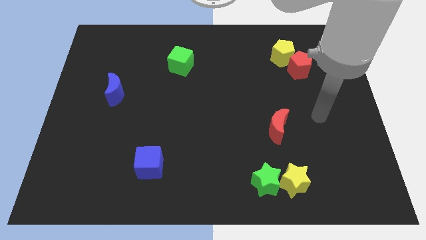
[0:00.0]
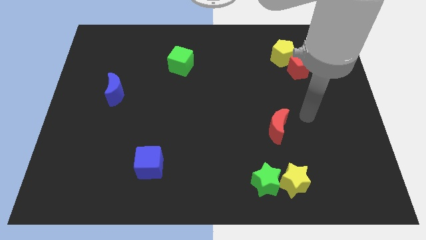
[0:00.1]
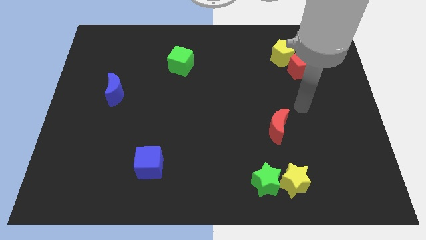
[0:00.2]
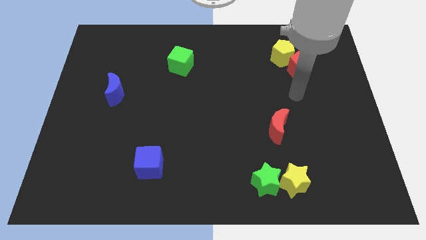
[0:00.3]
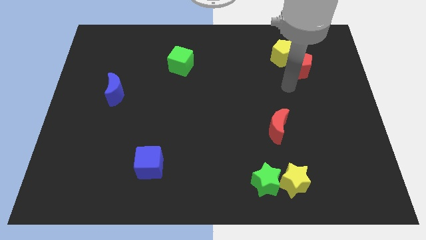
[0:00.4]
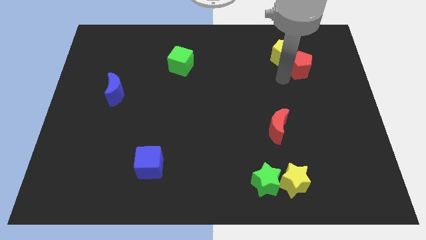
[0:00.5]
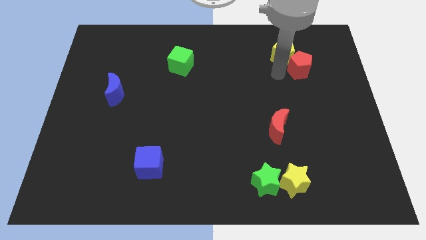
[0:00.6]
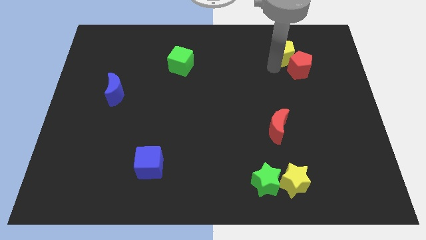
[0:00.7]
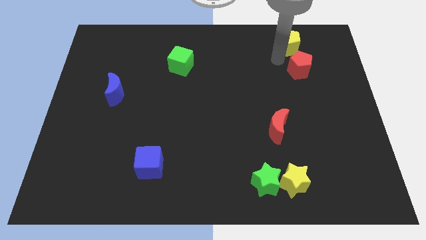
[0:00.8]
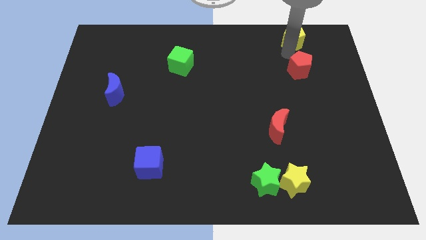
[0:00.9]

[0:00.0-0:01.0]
move the red pentagon away from the yellow pentagon

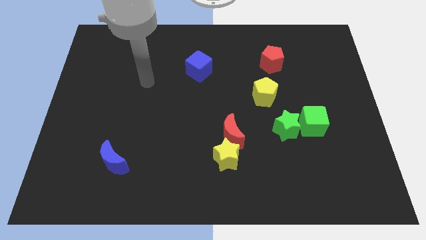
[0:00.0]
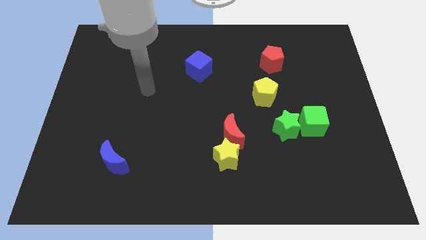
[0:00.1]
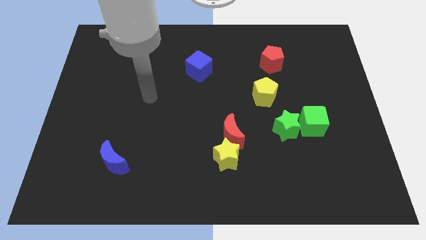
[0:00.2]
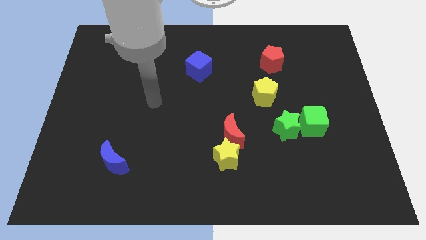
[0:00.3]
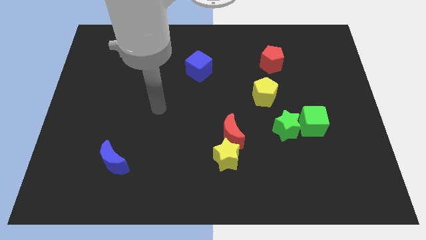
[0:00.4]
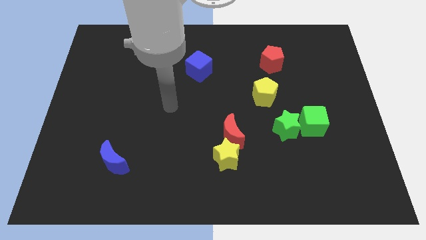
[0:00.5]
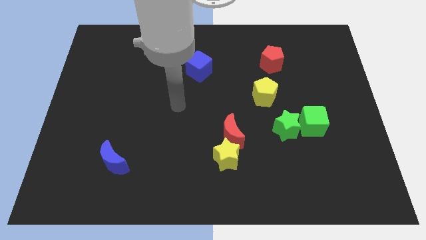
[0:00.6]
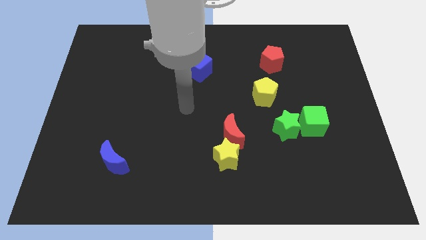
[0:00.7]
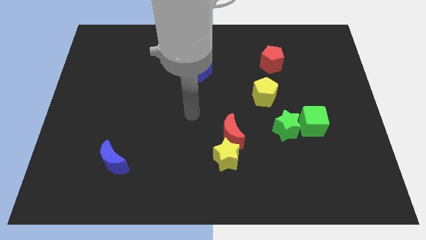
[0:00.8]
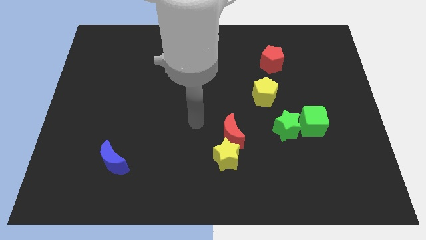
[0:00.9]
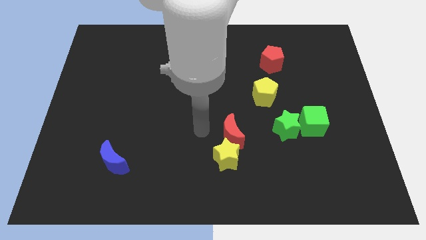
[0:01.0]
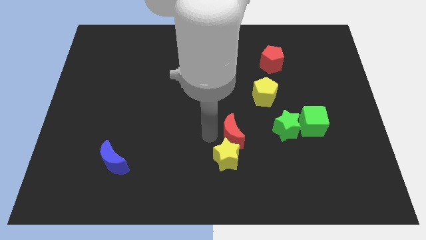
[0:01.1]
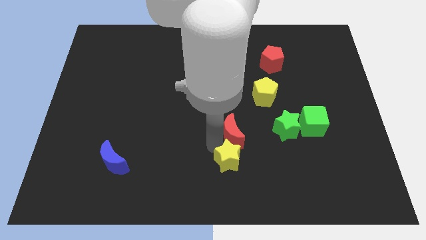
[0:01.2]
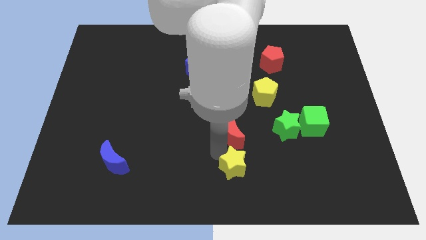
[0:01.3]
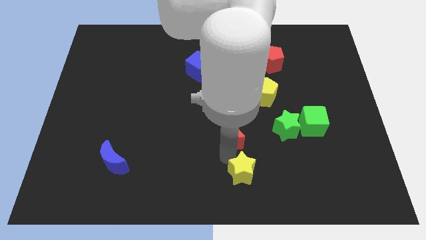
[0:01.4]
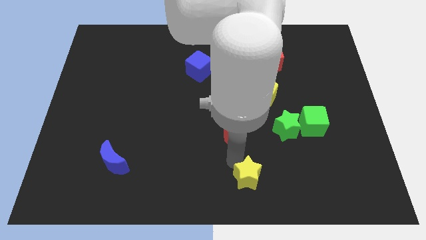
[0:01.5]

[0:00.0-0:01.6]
move the red moon away from the yellow star

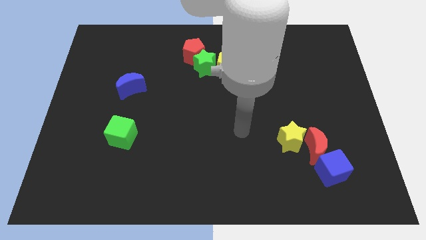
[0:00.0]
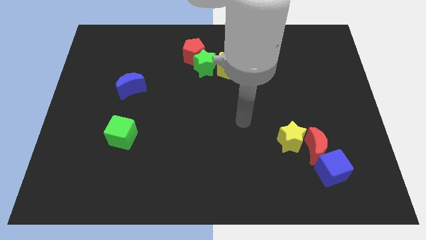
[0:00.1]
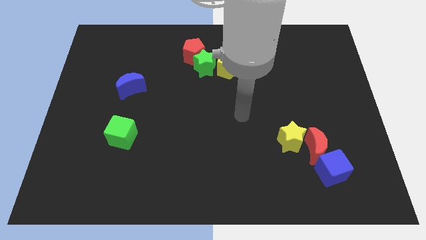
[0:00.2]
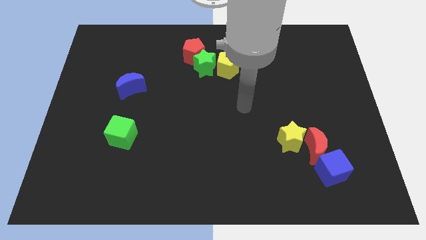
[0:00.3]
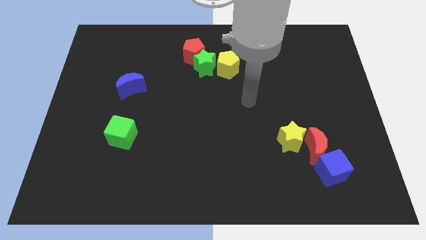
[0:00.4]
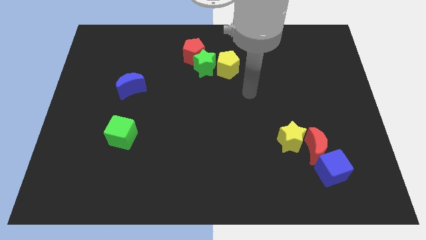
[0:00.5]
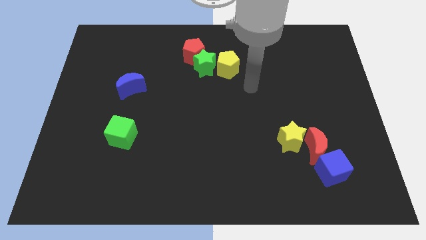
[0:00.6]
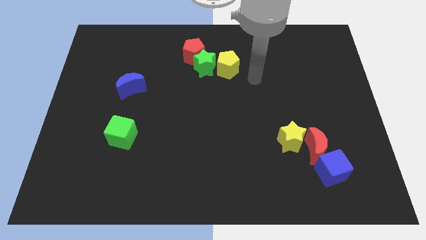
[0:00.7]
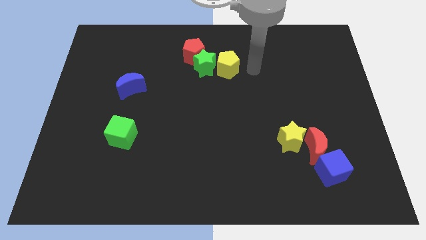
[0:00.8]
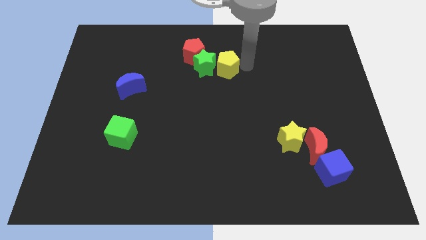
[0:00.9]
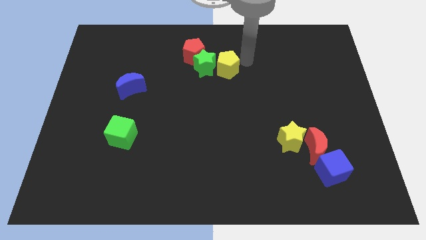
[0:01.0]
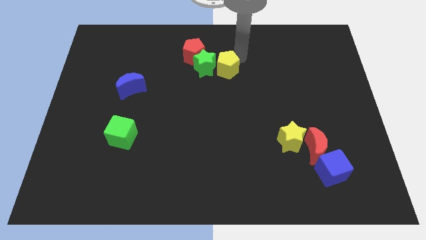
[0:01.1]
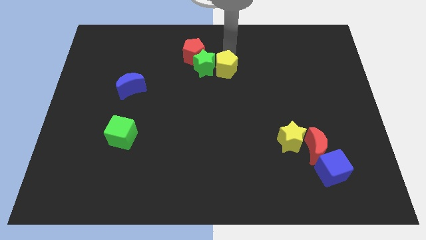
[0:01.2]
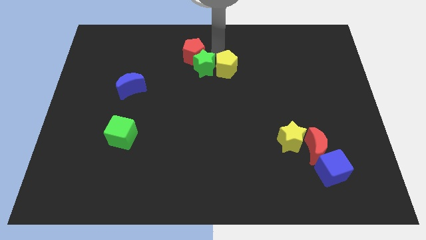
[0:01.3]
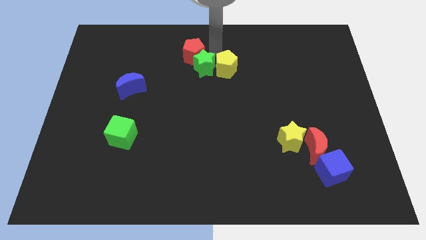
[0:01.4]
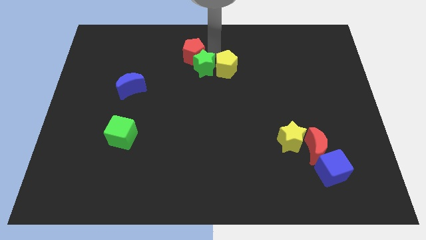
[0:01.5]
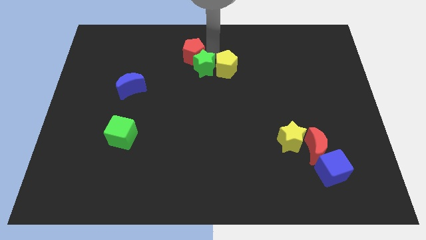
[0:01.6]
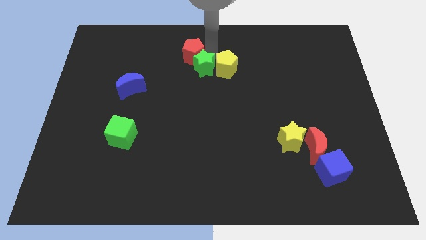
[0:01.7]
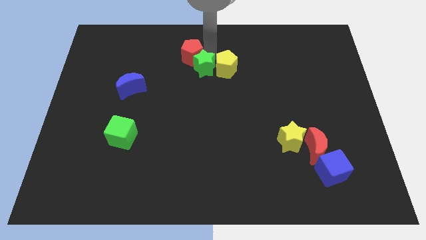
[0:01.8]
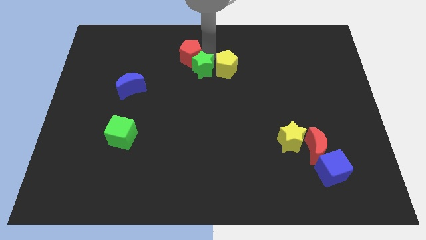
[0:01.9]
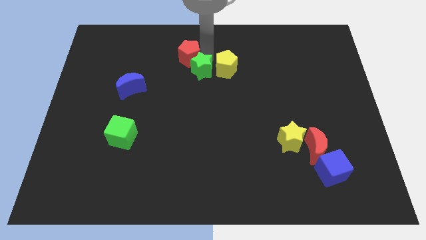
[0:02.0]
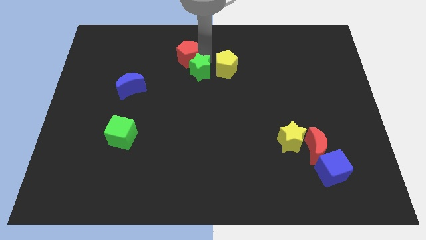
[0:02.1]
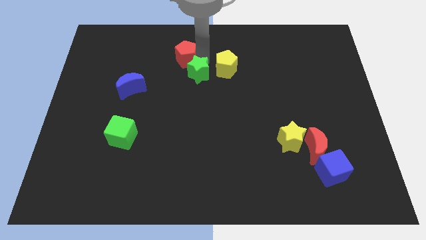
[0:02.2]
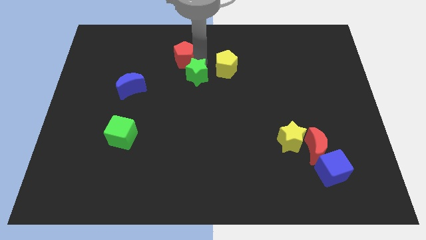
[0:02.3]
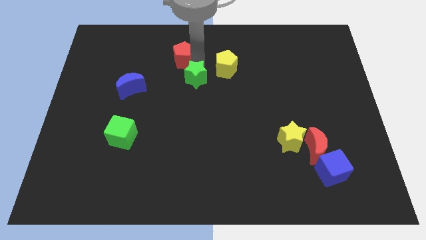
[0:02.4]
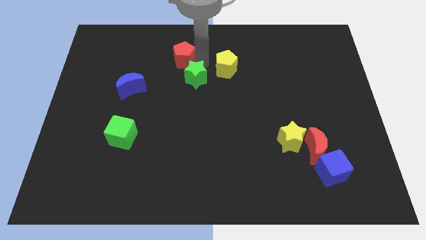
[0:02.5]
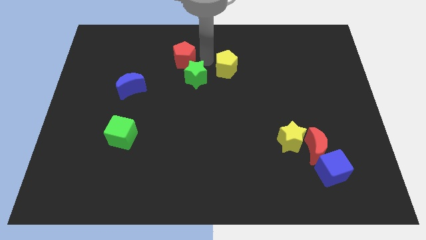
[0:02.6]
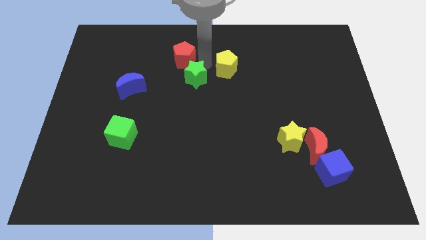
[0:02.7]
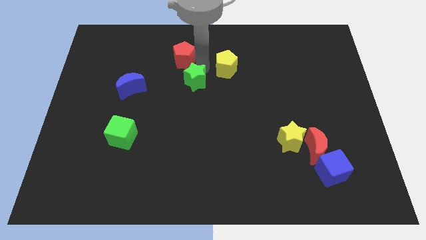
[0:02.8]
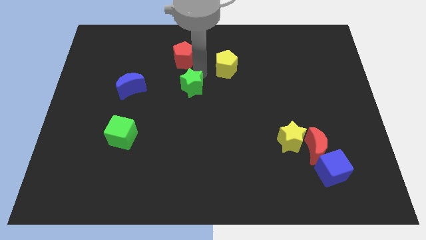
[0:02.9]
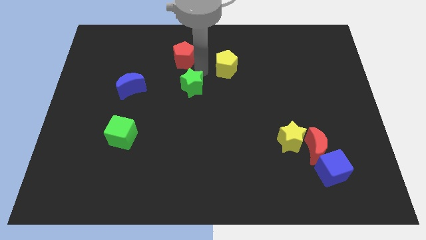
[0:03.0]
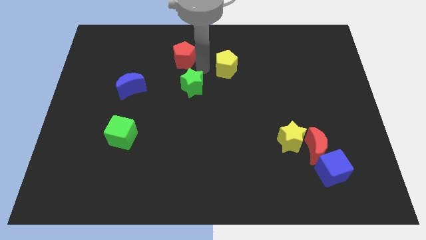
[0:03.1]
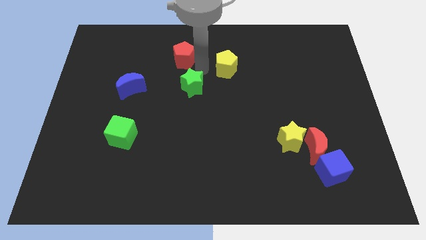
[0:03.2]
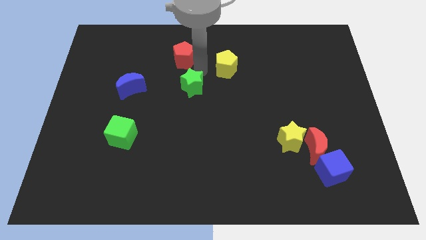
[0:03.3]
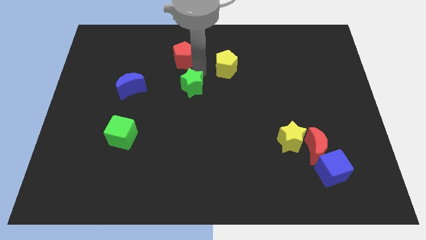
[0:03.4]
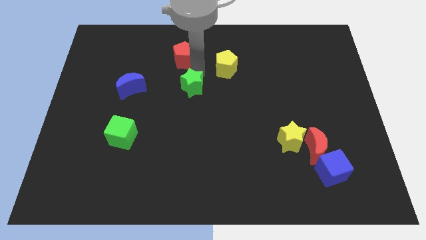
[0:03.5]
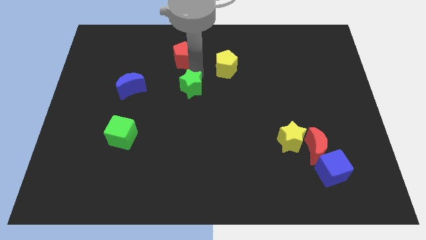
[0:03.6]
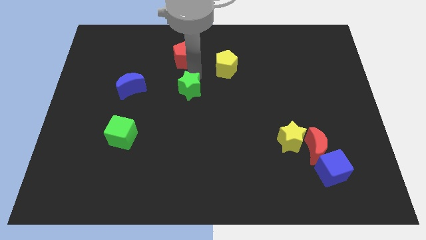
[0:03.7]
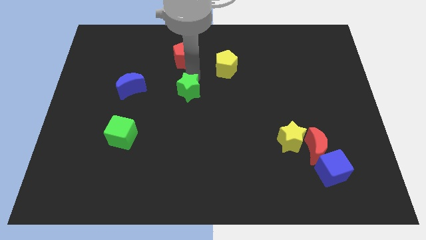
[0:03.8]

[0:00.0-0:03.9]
pull the green star apart from the red pentagon and yellow pentagon

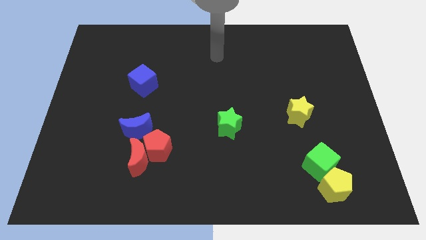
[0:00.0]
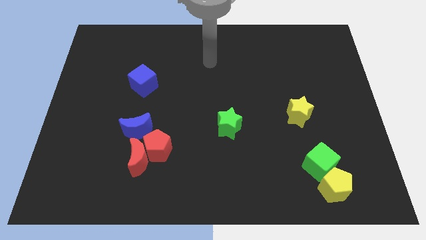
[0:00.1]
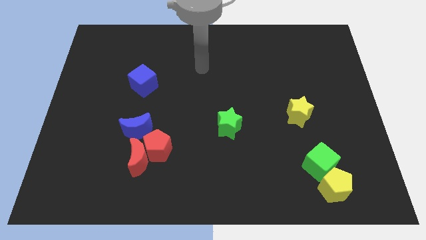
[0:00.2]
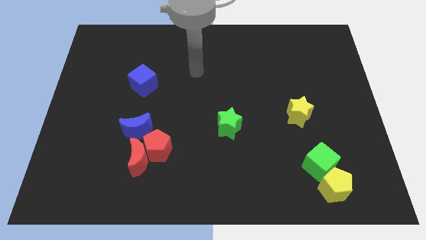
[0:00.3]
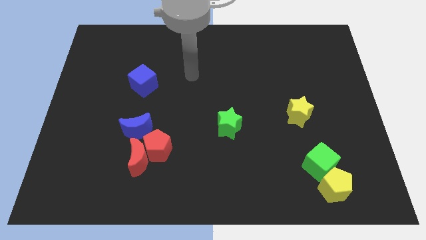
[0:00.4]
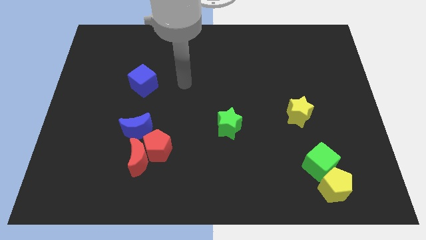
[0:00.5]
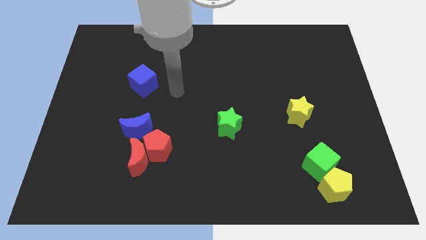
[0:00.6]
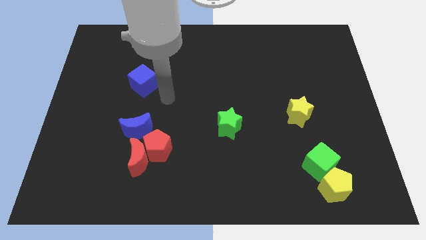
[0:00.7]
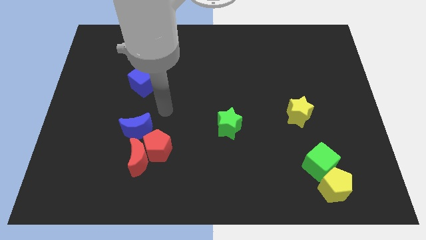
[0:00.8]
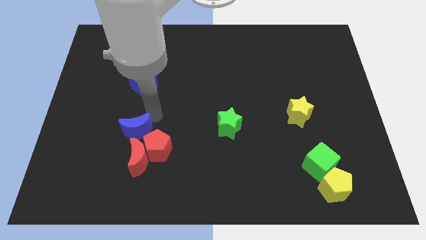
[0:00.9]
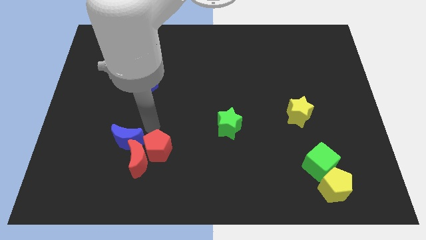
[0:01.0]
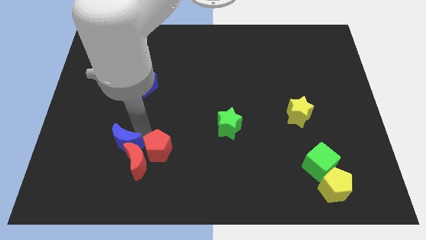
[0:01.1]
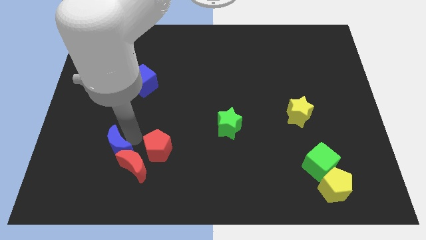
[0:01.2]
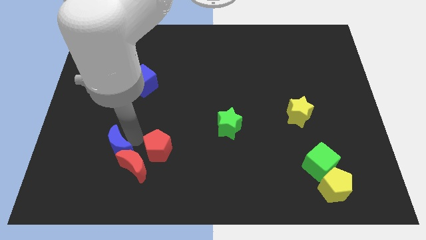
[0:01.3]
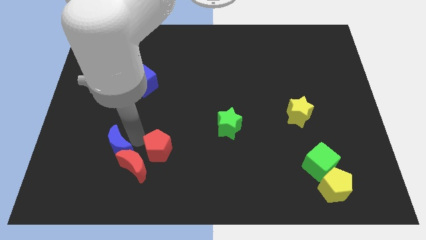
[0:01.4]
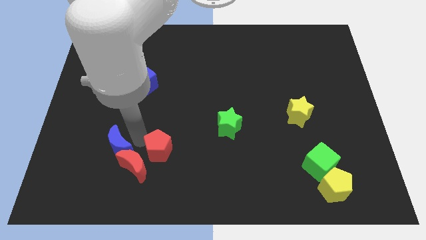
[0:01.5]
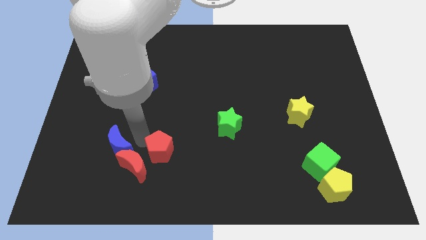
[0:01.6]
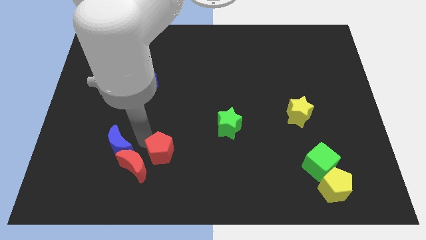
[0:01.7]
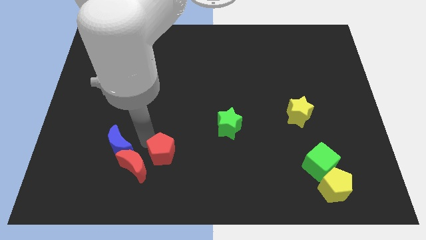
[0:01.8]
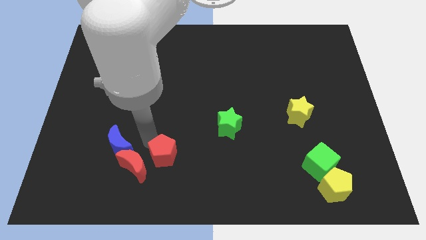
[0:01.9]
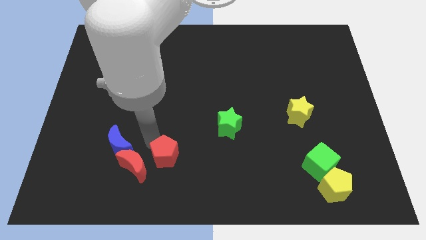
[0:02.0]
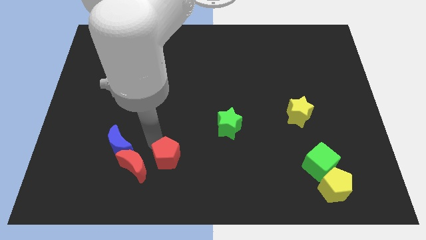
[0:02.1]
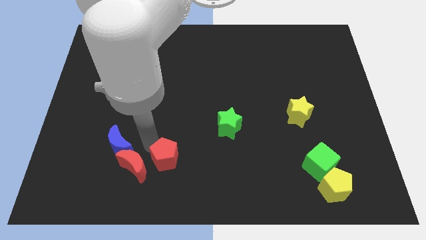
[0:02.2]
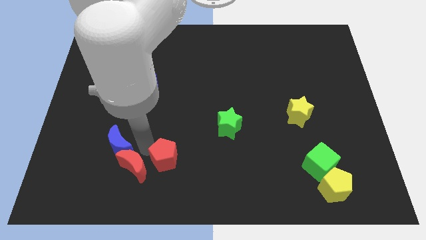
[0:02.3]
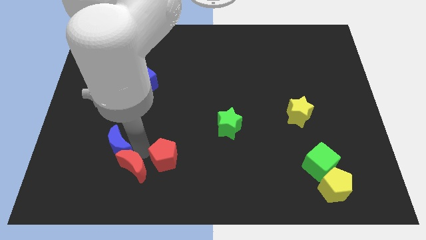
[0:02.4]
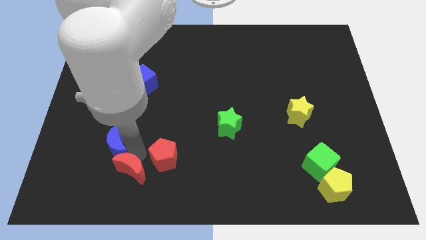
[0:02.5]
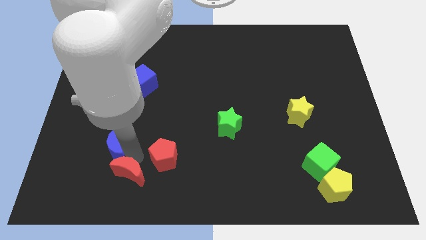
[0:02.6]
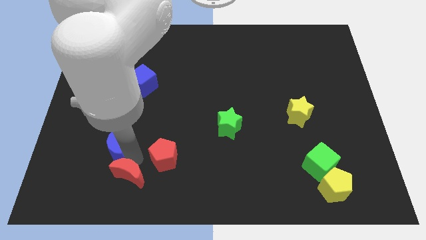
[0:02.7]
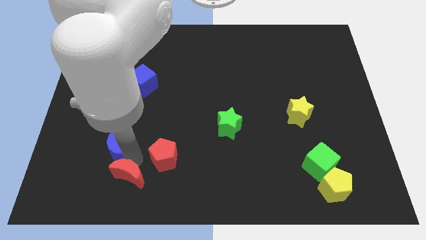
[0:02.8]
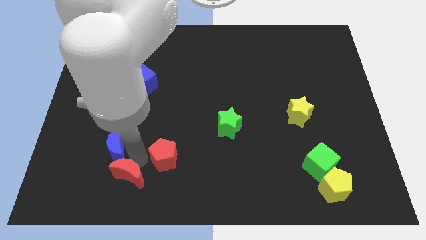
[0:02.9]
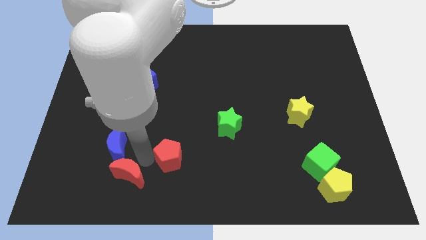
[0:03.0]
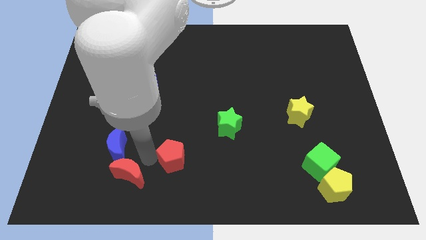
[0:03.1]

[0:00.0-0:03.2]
separate the red pentagon from the red moon and blue moon
